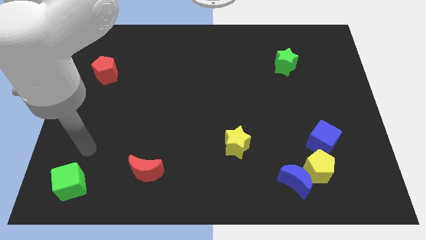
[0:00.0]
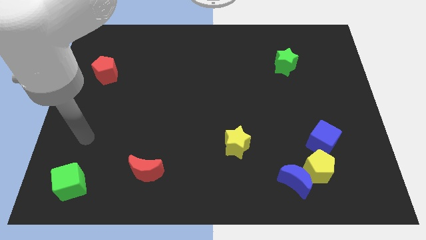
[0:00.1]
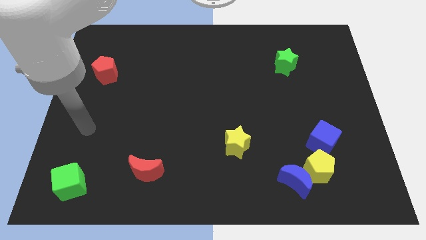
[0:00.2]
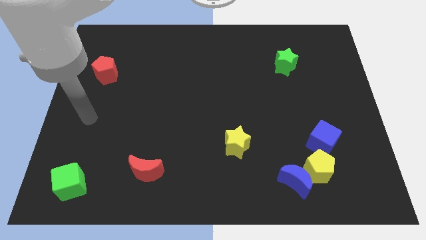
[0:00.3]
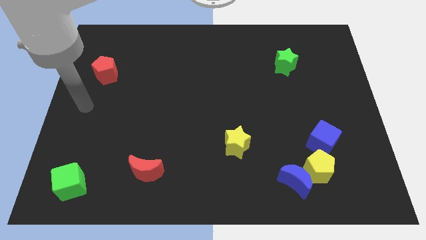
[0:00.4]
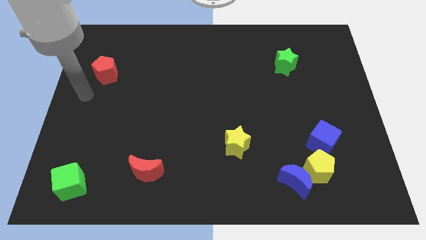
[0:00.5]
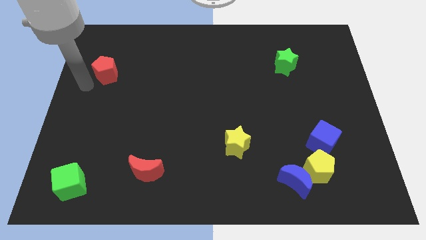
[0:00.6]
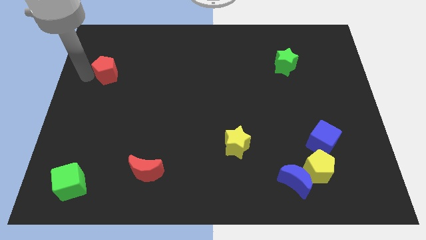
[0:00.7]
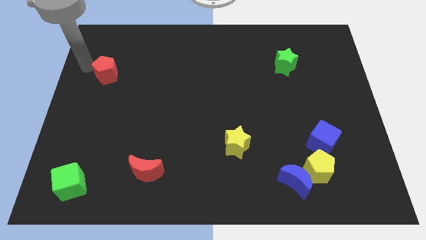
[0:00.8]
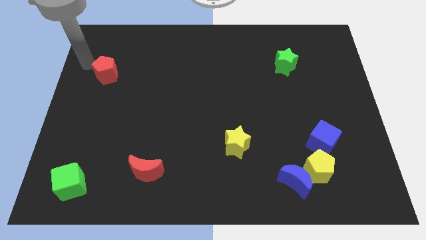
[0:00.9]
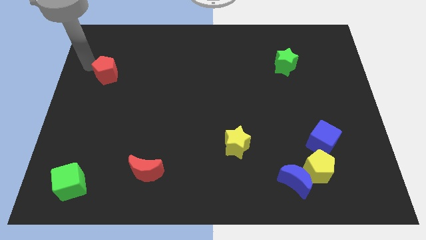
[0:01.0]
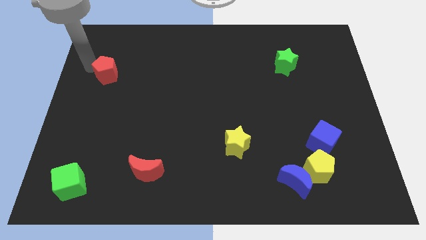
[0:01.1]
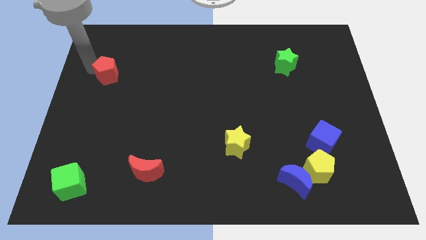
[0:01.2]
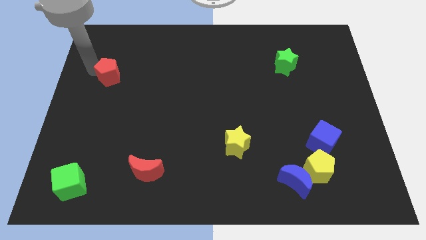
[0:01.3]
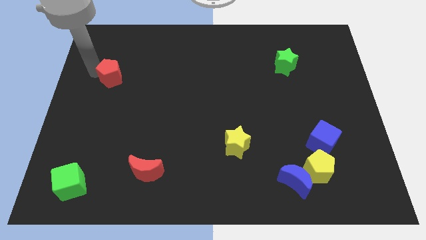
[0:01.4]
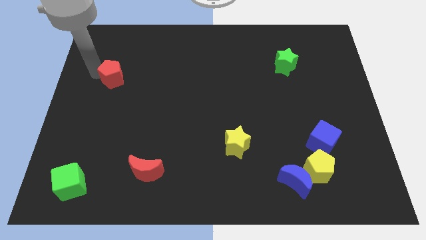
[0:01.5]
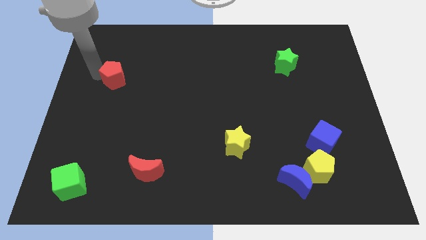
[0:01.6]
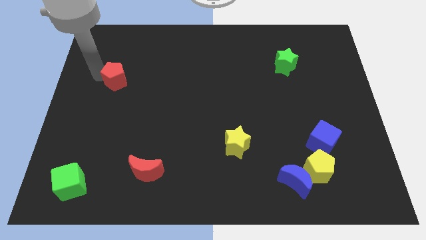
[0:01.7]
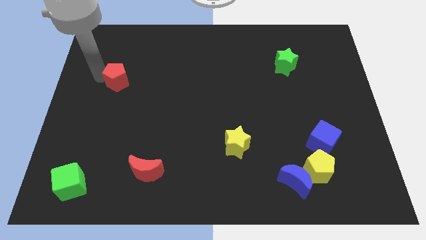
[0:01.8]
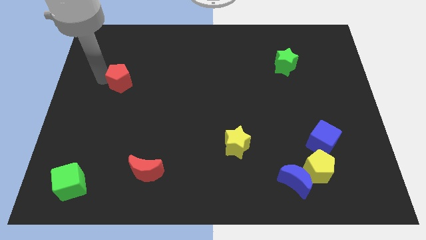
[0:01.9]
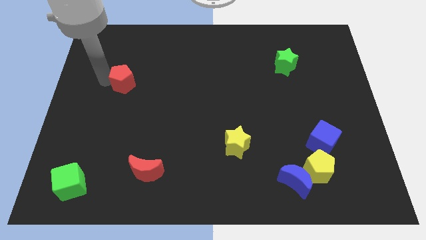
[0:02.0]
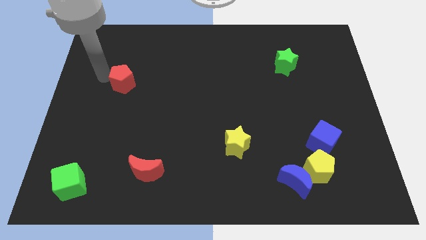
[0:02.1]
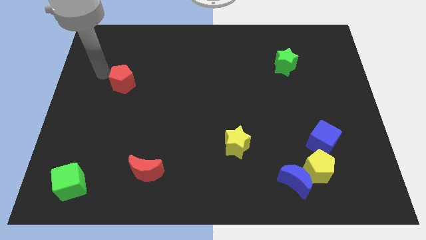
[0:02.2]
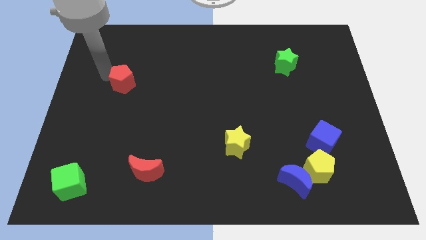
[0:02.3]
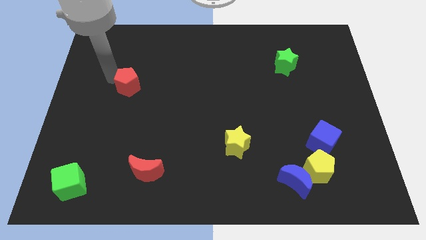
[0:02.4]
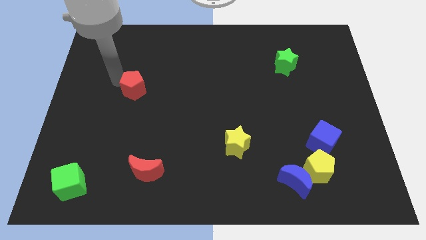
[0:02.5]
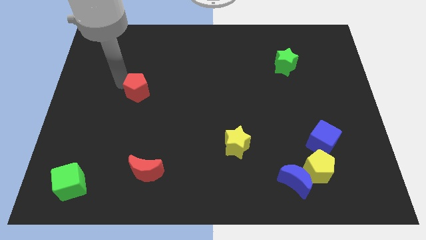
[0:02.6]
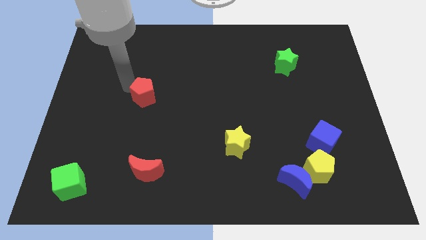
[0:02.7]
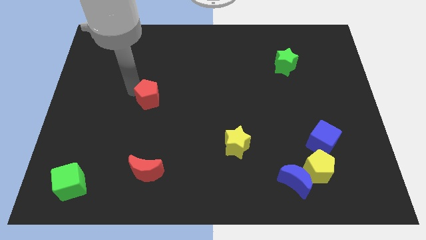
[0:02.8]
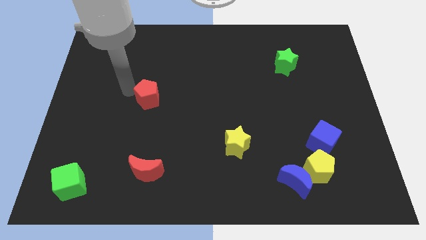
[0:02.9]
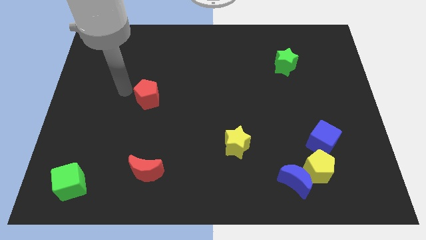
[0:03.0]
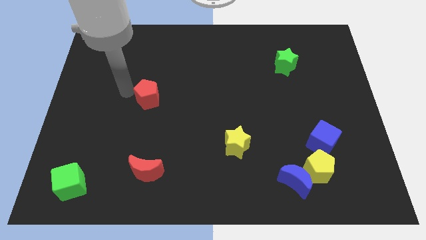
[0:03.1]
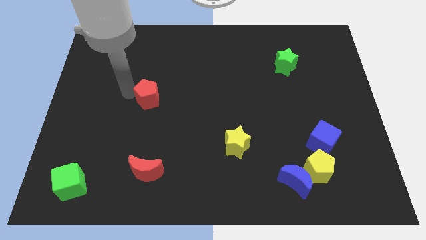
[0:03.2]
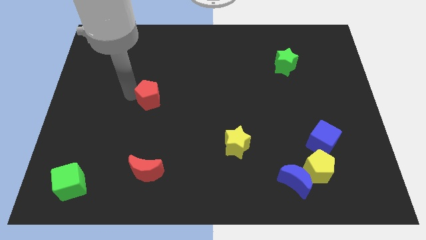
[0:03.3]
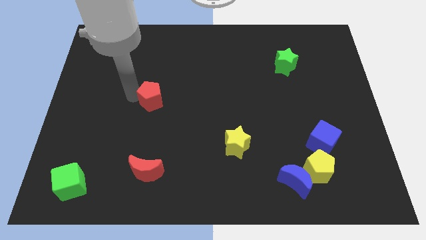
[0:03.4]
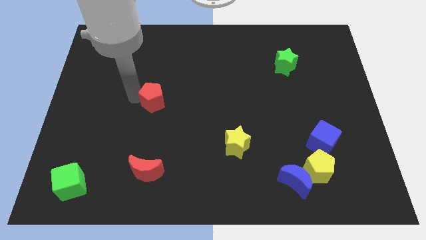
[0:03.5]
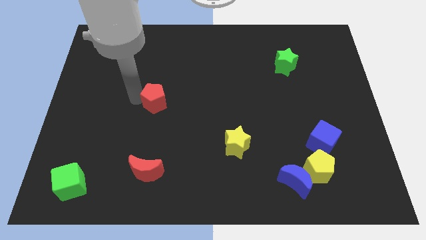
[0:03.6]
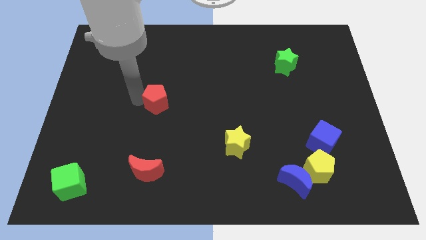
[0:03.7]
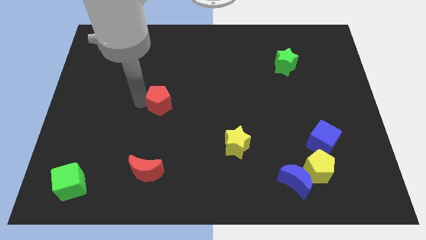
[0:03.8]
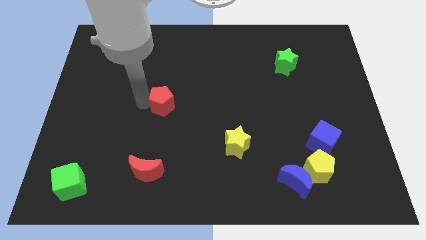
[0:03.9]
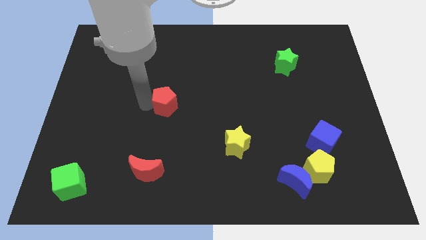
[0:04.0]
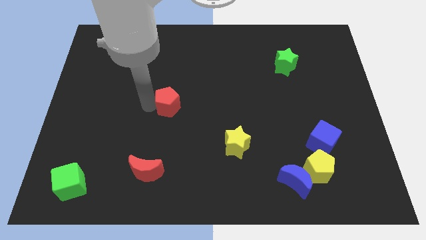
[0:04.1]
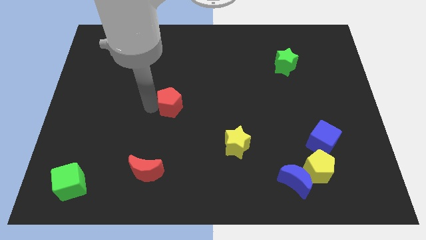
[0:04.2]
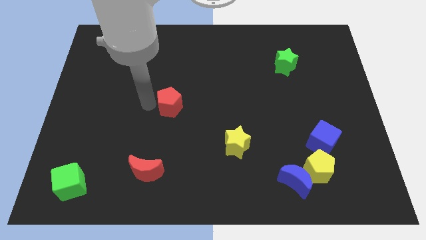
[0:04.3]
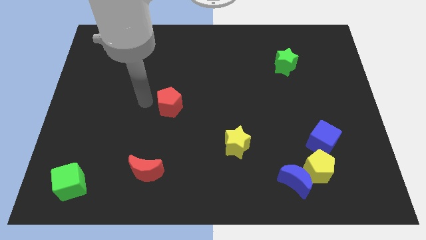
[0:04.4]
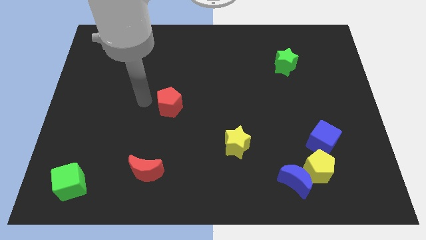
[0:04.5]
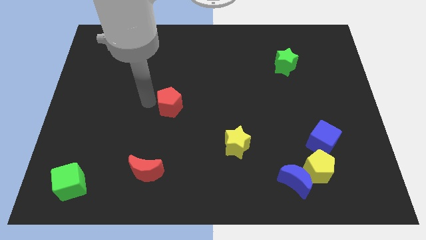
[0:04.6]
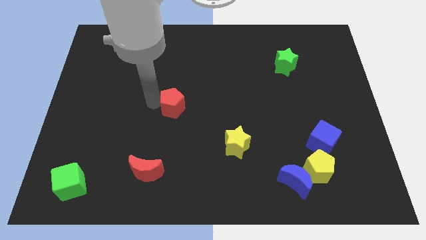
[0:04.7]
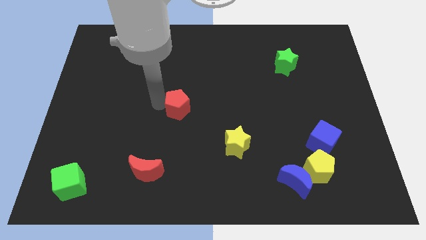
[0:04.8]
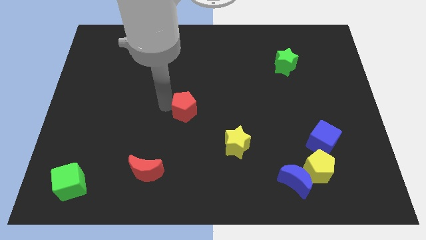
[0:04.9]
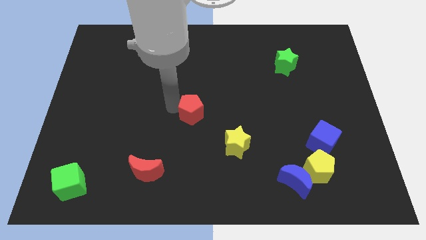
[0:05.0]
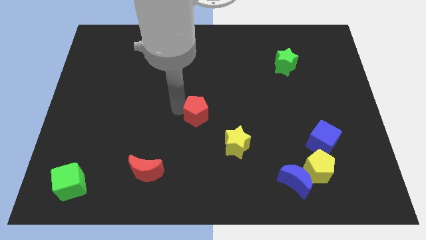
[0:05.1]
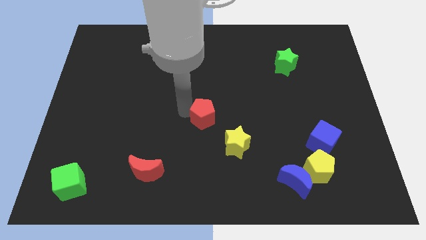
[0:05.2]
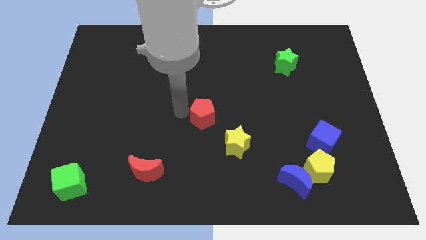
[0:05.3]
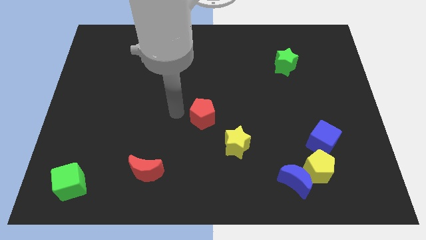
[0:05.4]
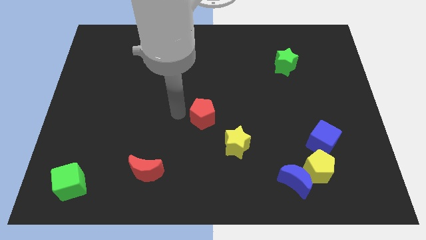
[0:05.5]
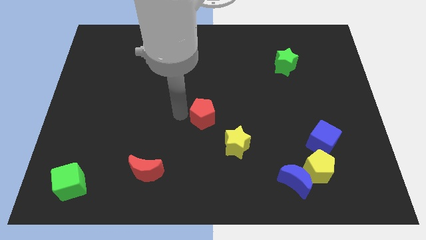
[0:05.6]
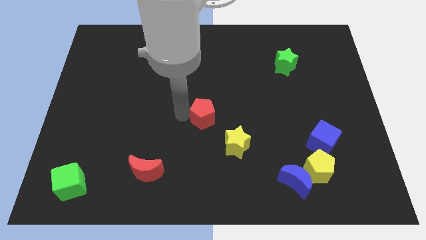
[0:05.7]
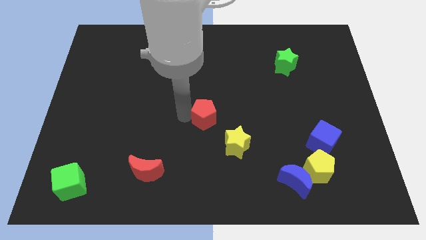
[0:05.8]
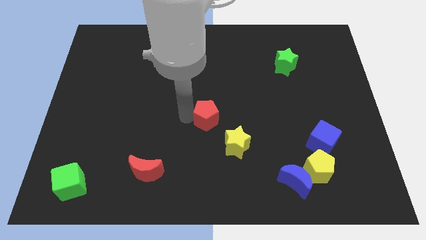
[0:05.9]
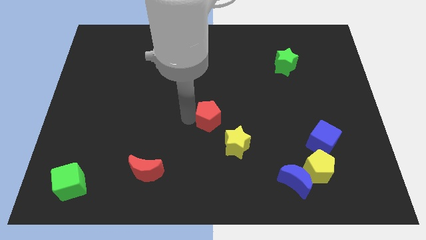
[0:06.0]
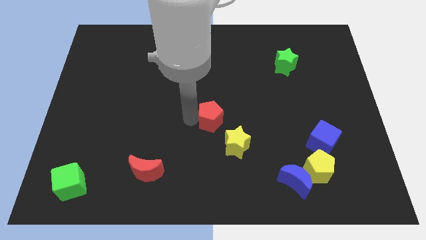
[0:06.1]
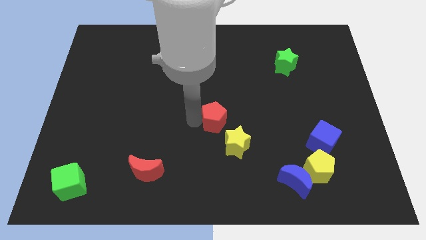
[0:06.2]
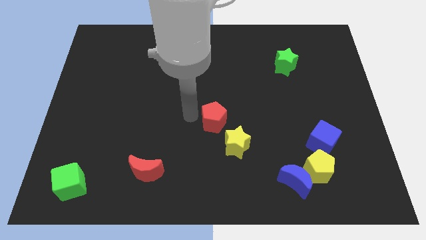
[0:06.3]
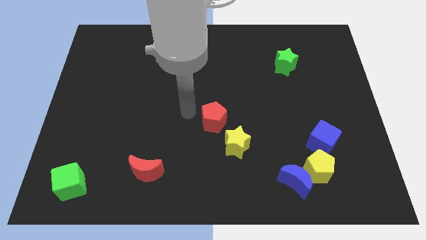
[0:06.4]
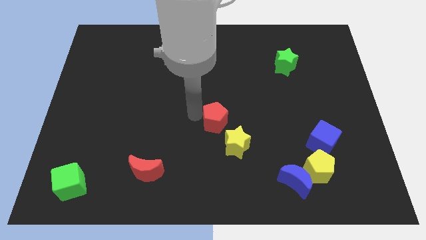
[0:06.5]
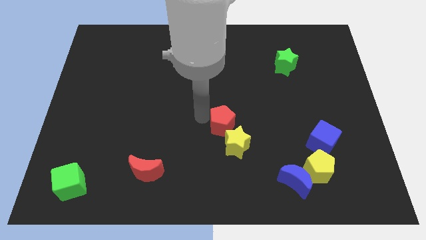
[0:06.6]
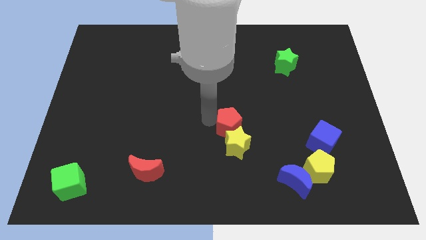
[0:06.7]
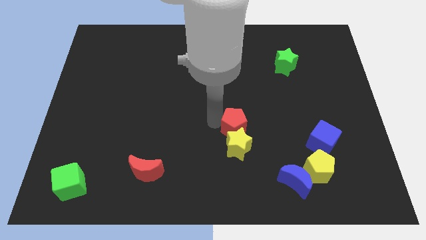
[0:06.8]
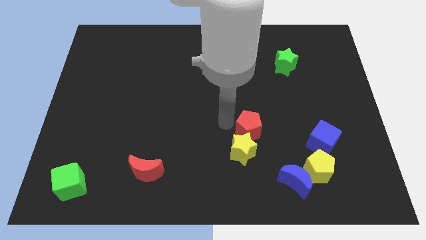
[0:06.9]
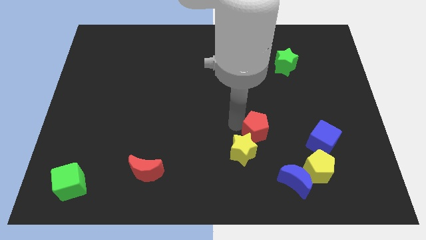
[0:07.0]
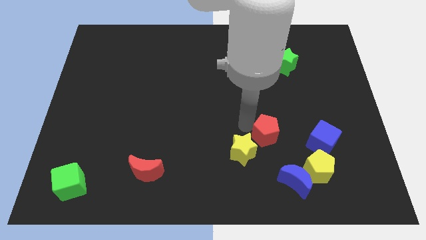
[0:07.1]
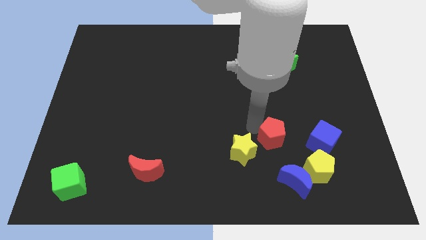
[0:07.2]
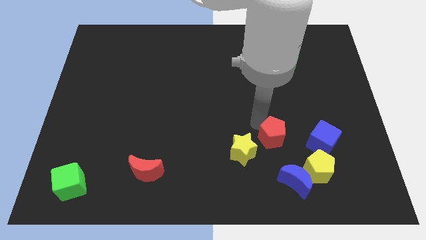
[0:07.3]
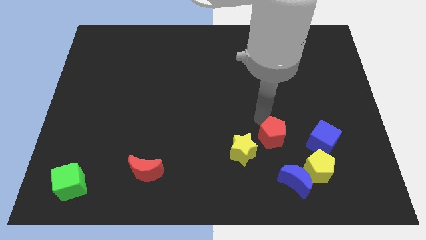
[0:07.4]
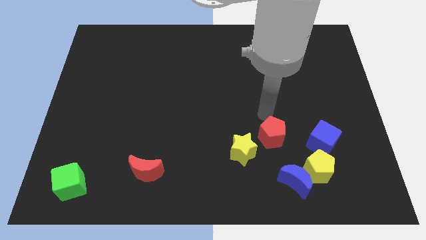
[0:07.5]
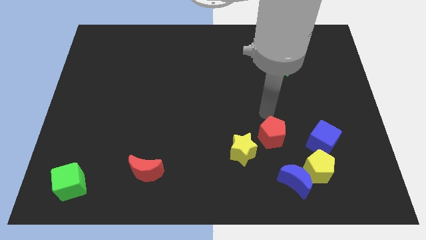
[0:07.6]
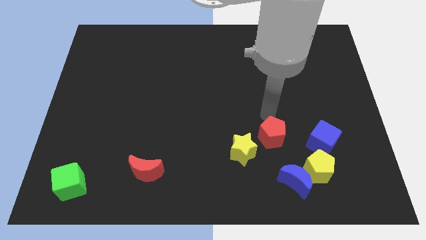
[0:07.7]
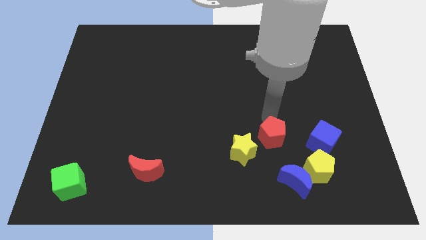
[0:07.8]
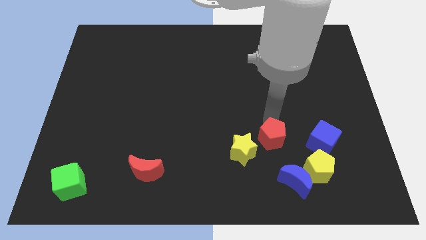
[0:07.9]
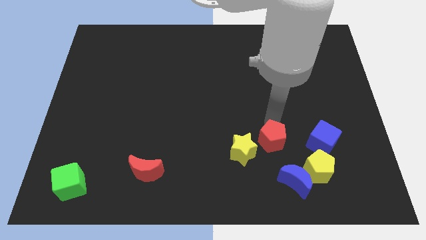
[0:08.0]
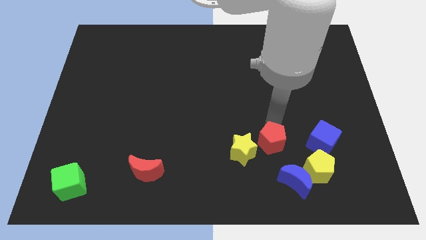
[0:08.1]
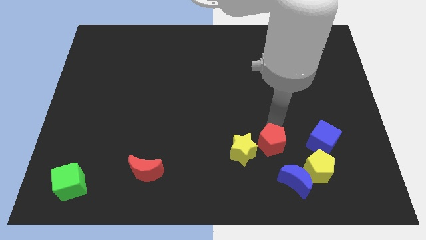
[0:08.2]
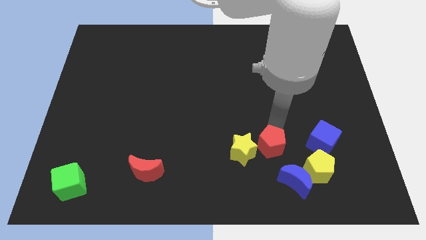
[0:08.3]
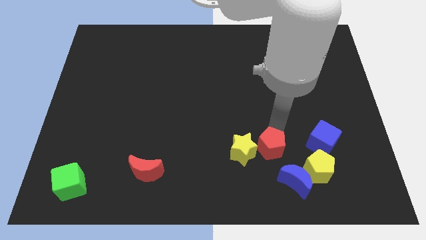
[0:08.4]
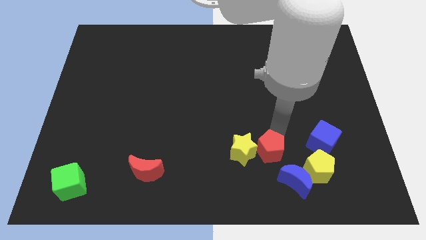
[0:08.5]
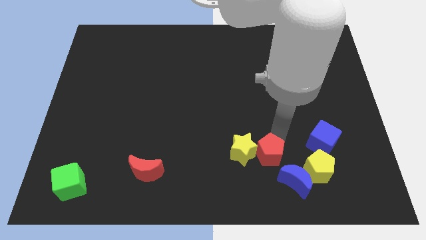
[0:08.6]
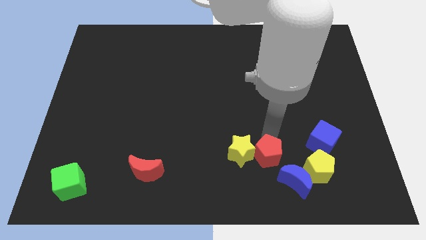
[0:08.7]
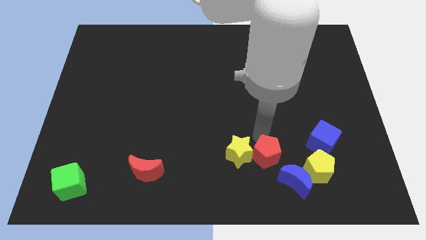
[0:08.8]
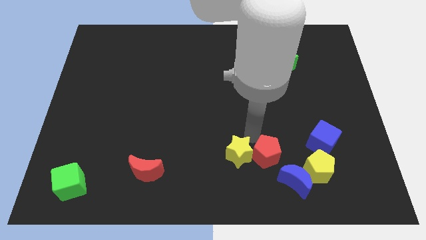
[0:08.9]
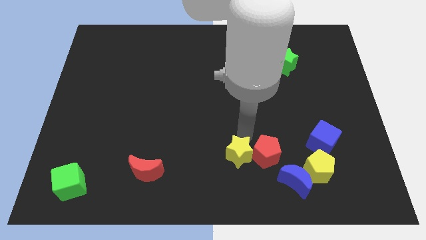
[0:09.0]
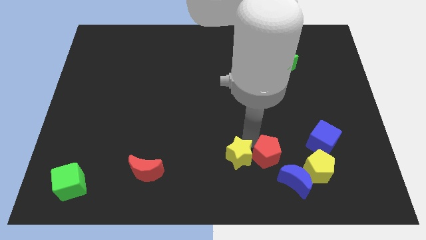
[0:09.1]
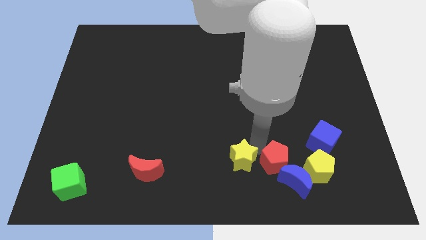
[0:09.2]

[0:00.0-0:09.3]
put the red pentagon to the blue moon
